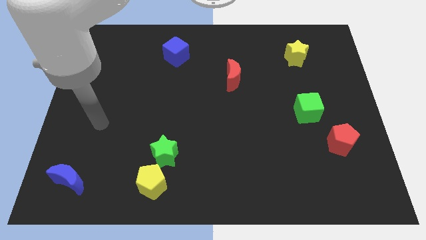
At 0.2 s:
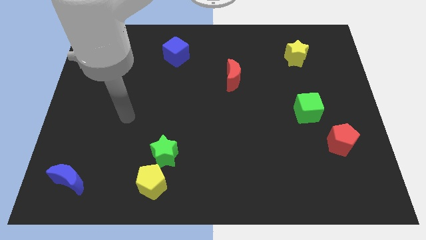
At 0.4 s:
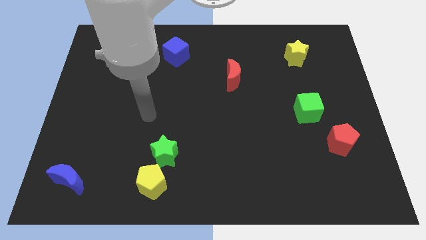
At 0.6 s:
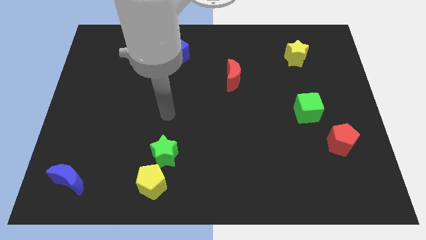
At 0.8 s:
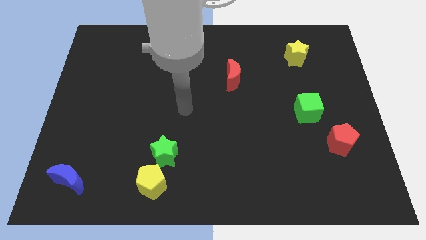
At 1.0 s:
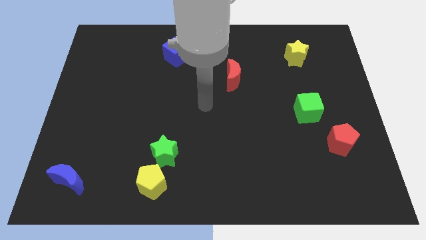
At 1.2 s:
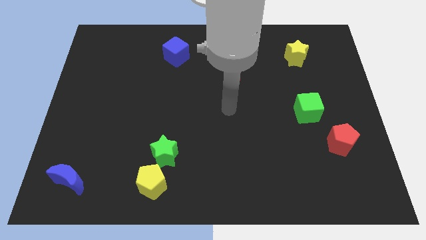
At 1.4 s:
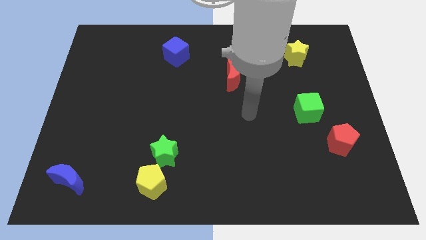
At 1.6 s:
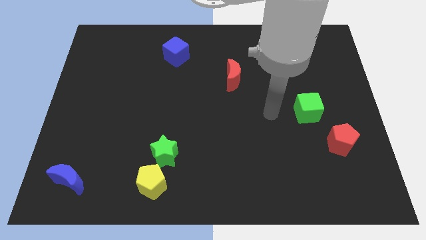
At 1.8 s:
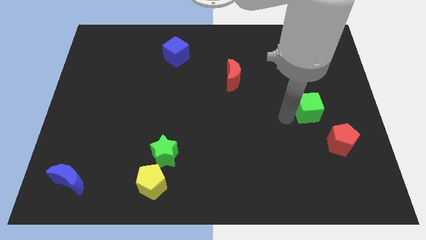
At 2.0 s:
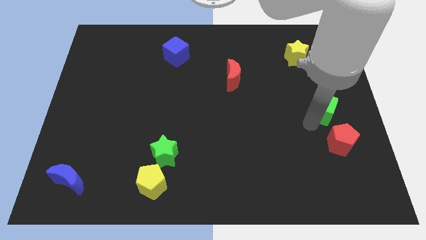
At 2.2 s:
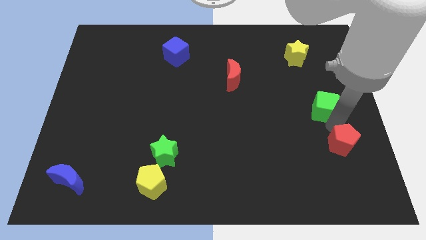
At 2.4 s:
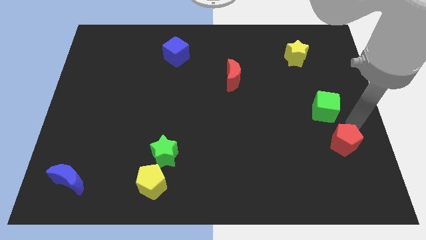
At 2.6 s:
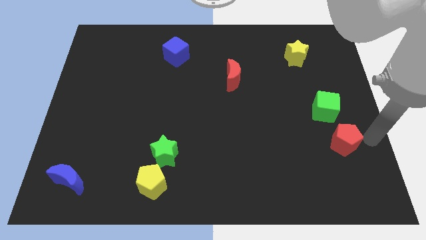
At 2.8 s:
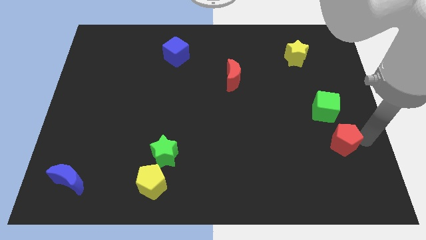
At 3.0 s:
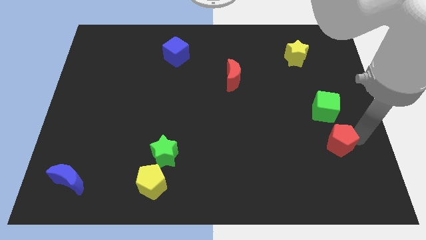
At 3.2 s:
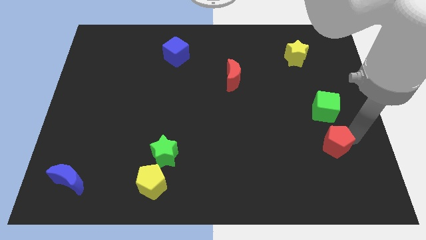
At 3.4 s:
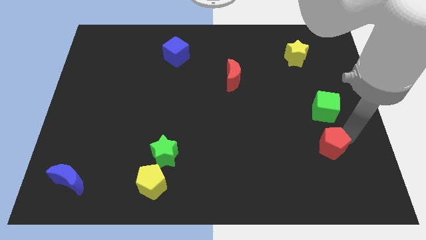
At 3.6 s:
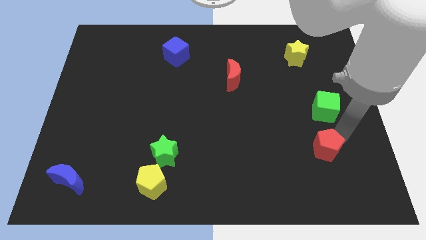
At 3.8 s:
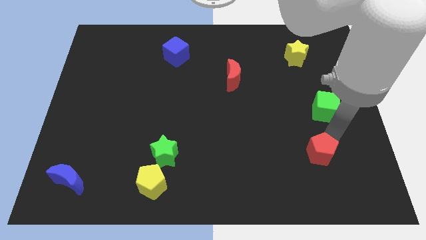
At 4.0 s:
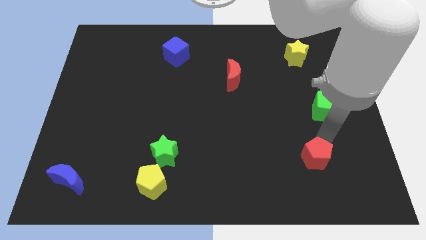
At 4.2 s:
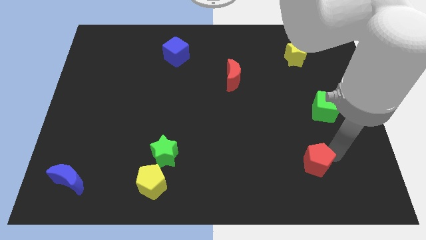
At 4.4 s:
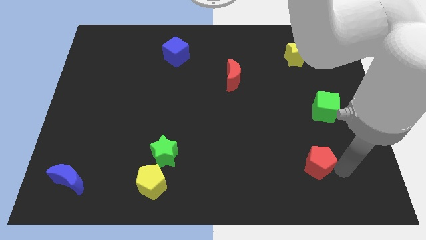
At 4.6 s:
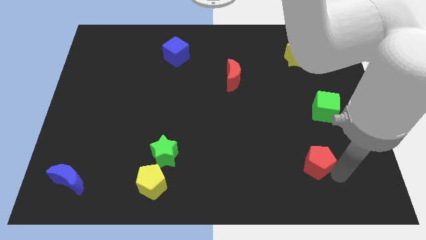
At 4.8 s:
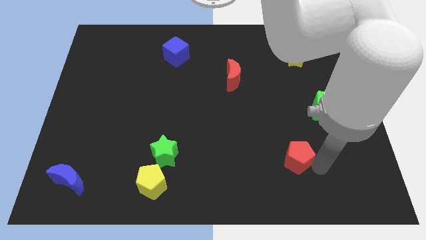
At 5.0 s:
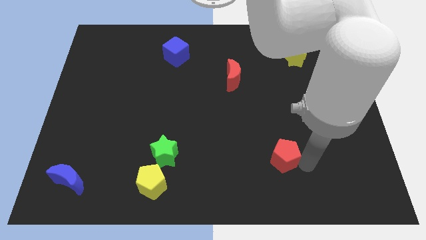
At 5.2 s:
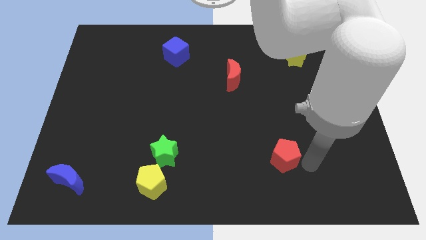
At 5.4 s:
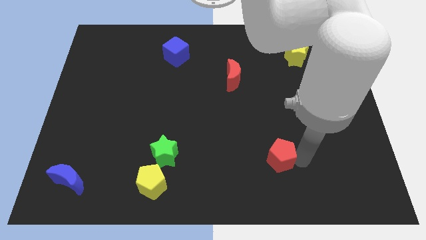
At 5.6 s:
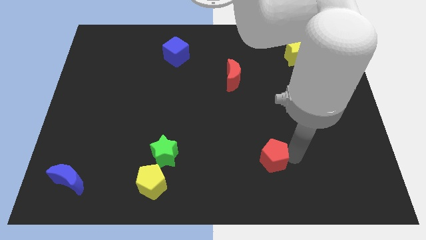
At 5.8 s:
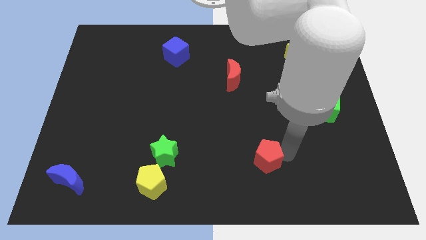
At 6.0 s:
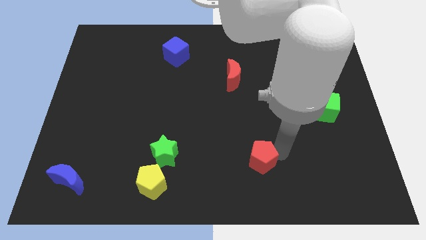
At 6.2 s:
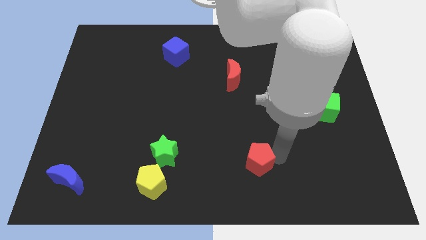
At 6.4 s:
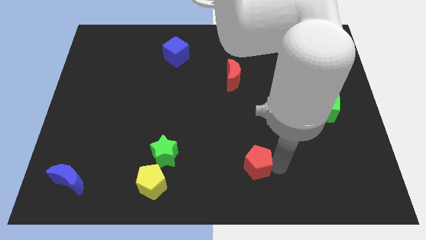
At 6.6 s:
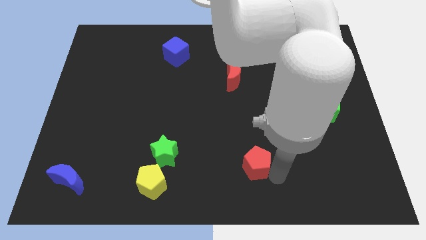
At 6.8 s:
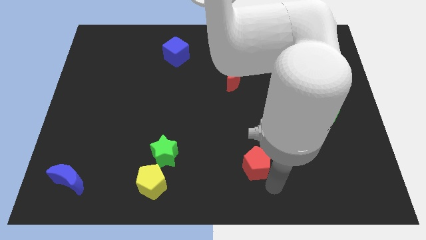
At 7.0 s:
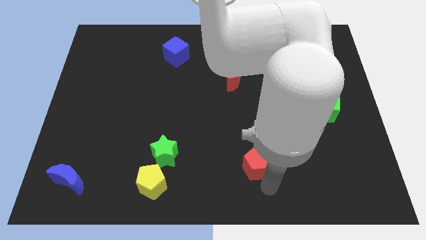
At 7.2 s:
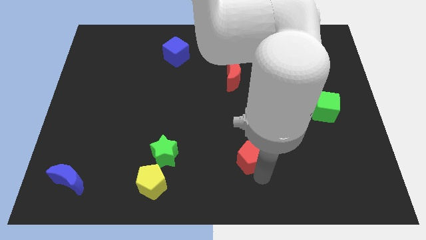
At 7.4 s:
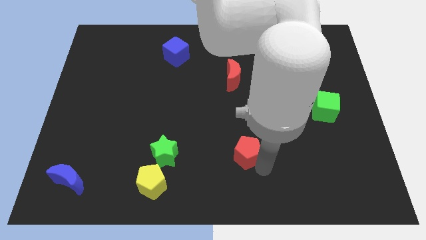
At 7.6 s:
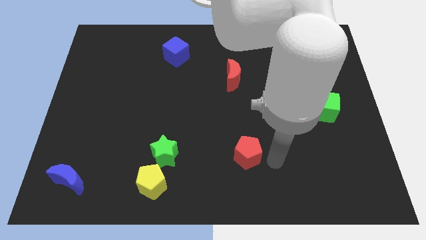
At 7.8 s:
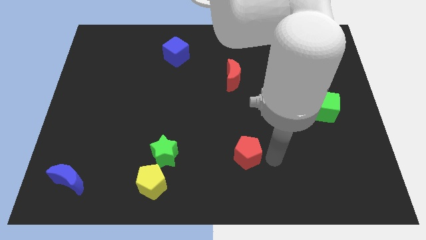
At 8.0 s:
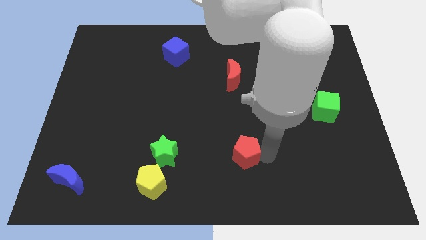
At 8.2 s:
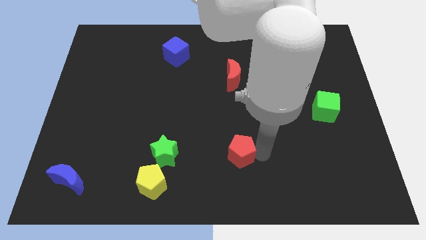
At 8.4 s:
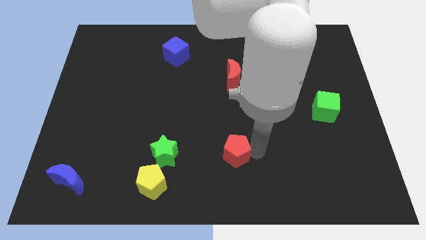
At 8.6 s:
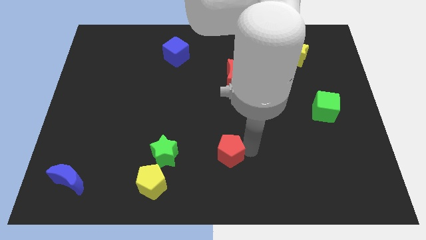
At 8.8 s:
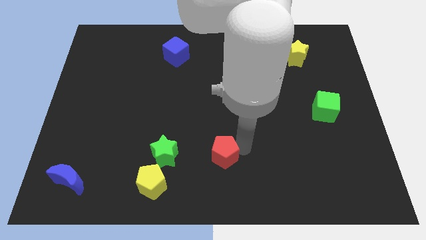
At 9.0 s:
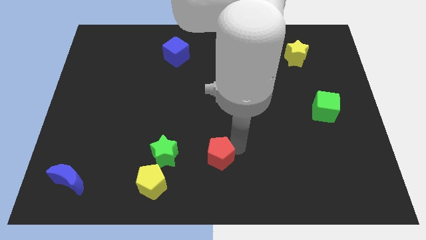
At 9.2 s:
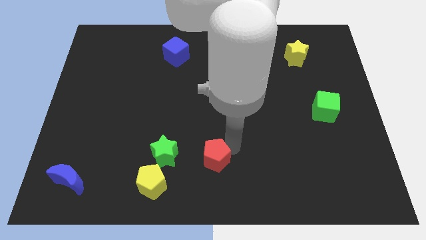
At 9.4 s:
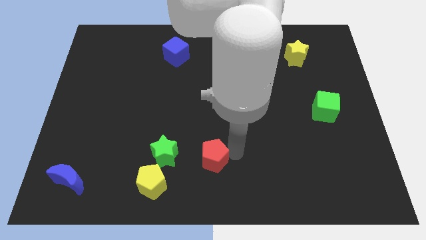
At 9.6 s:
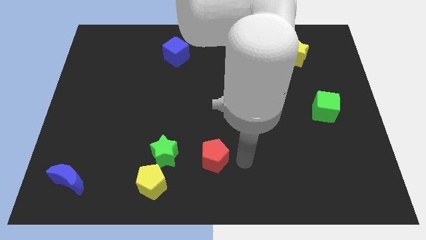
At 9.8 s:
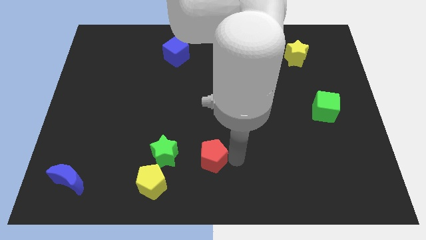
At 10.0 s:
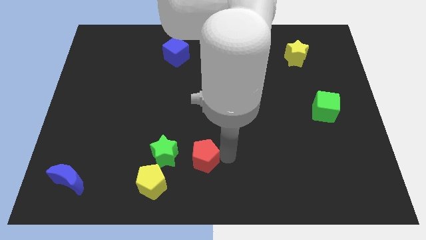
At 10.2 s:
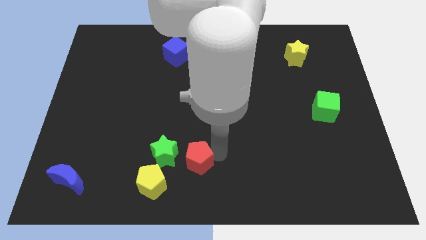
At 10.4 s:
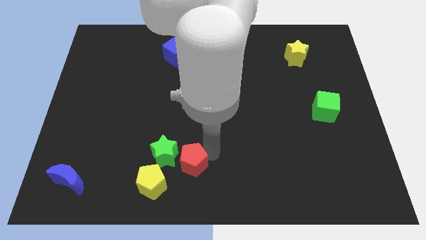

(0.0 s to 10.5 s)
slide the red pentagon towards the green star

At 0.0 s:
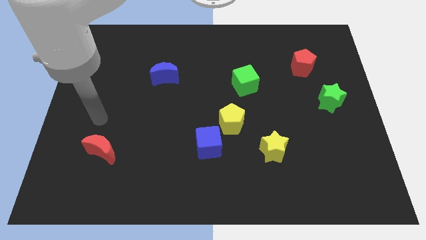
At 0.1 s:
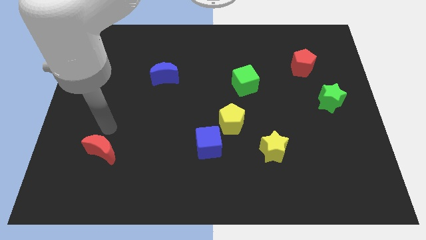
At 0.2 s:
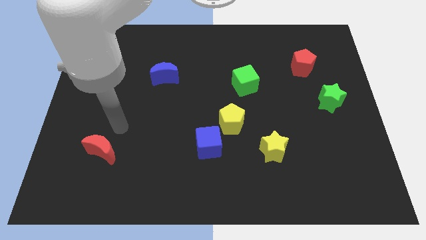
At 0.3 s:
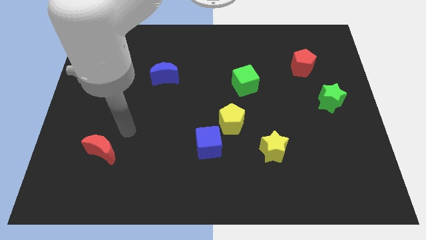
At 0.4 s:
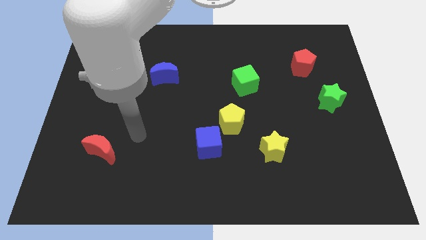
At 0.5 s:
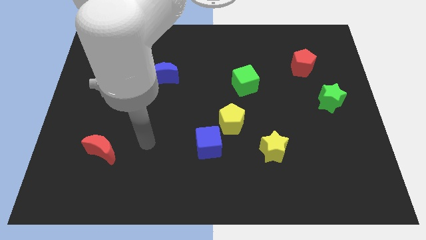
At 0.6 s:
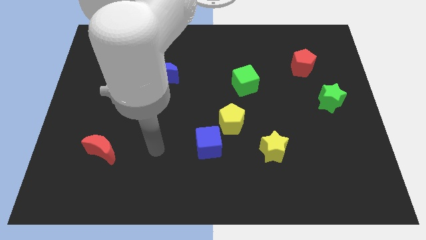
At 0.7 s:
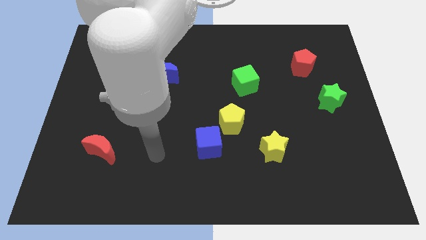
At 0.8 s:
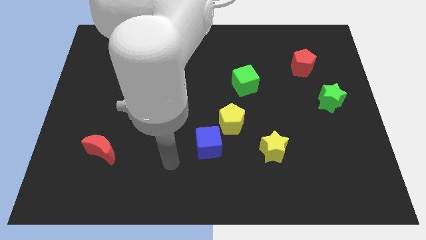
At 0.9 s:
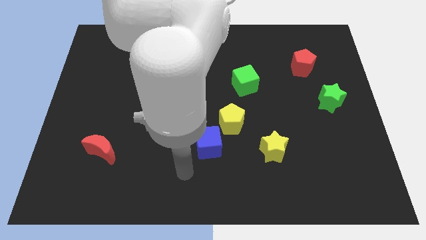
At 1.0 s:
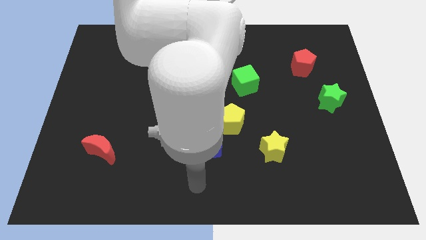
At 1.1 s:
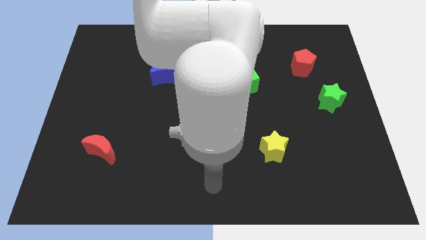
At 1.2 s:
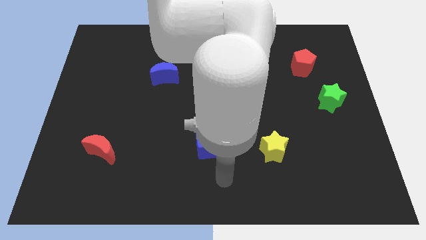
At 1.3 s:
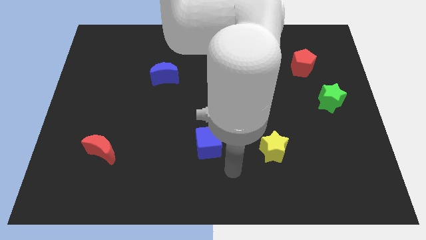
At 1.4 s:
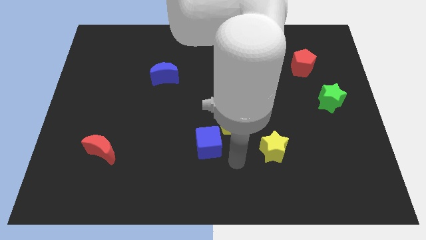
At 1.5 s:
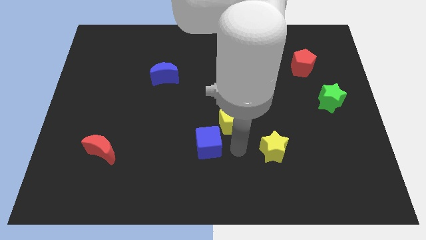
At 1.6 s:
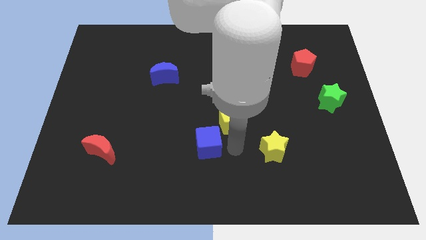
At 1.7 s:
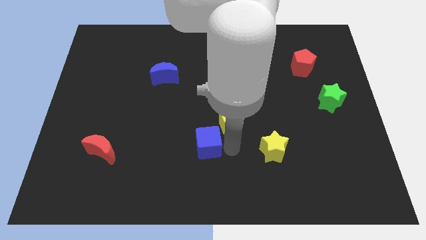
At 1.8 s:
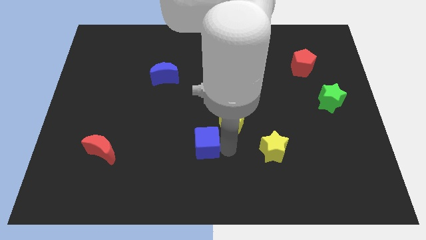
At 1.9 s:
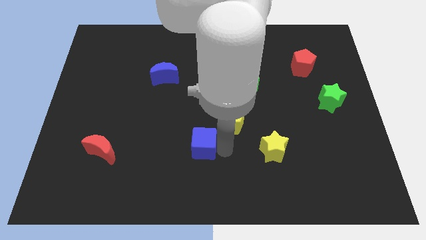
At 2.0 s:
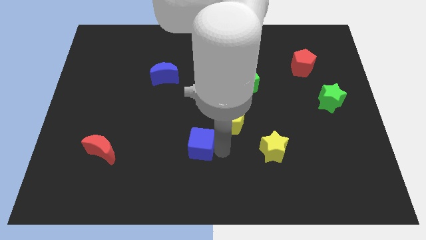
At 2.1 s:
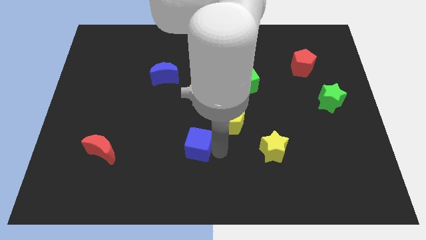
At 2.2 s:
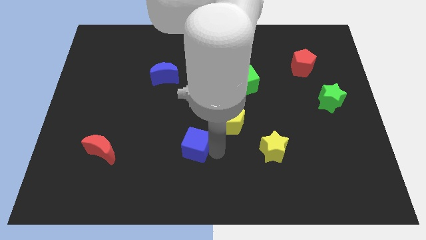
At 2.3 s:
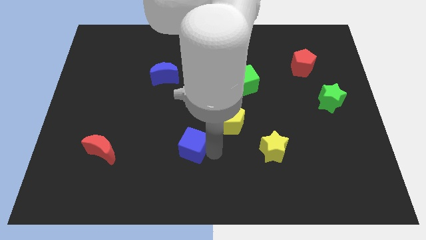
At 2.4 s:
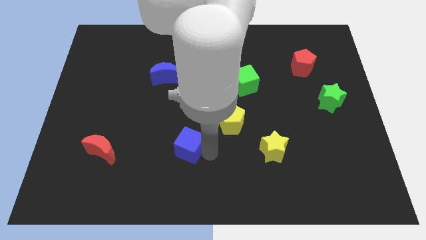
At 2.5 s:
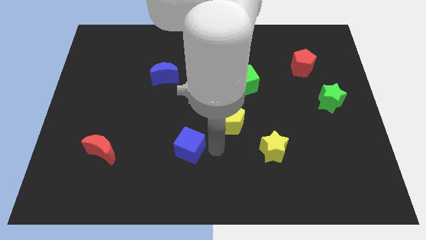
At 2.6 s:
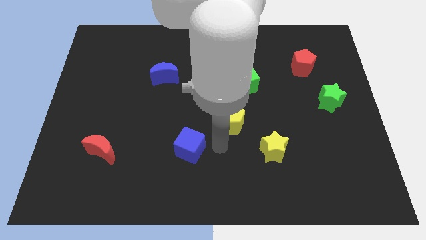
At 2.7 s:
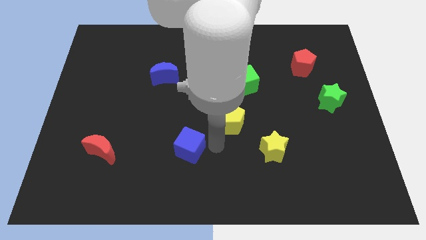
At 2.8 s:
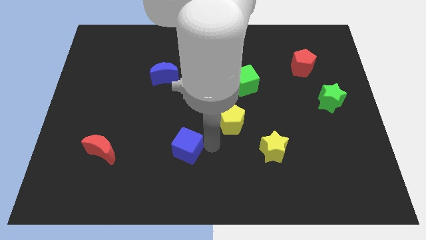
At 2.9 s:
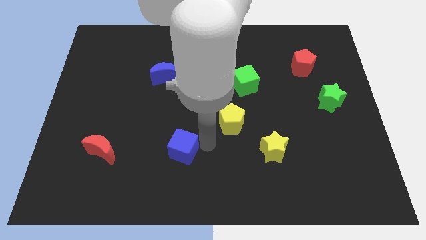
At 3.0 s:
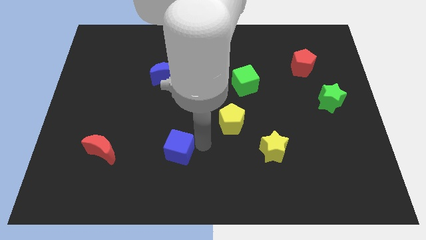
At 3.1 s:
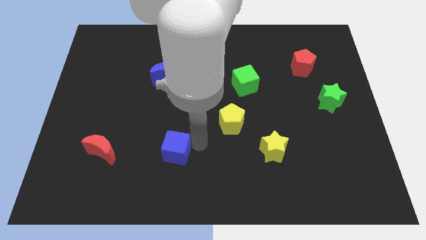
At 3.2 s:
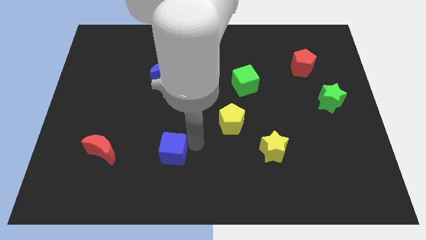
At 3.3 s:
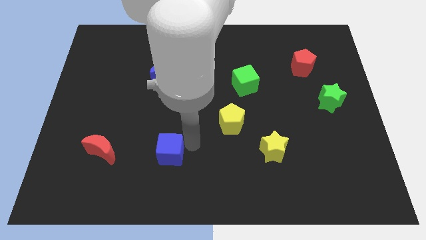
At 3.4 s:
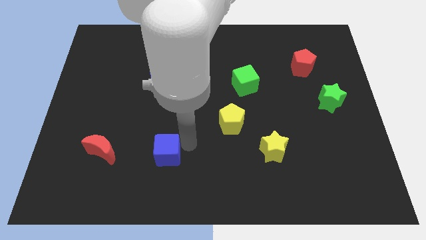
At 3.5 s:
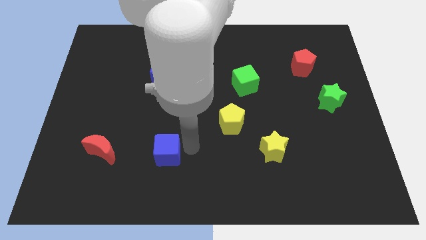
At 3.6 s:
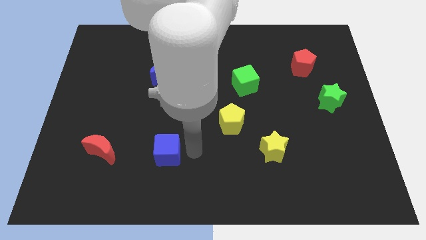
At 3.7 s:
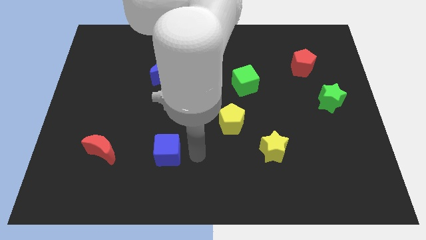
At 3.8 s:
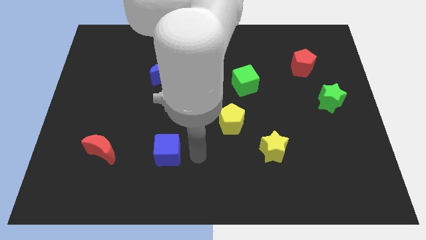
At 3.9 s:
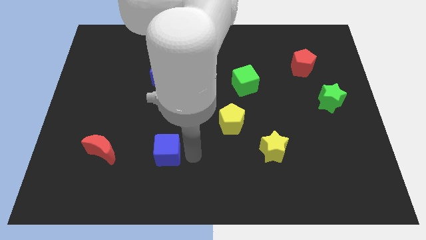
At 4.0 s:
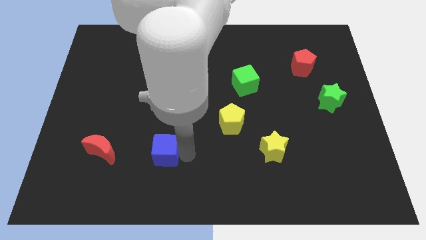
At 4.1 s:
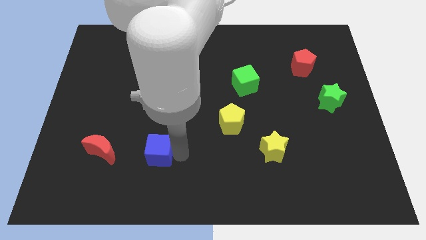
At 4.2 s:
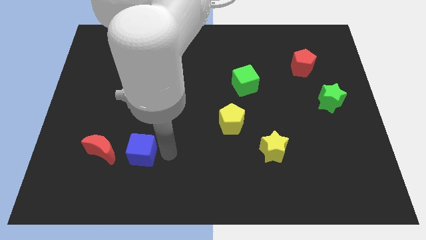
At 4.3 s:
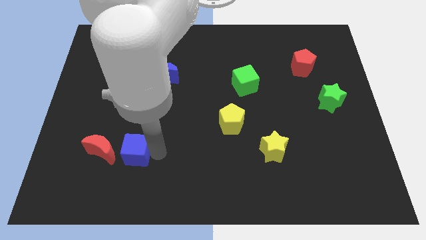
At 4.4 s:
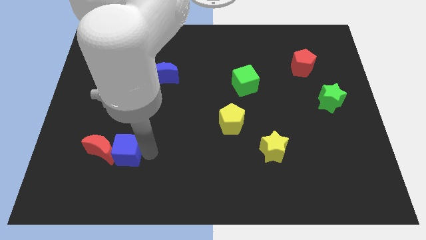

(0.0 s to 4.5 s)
push the blue cube towards the red moon
